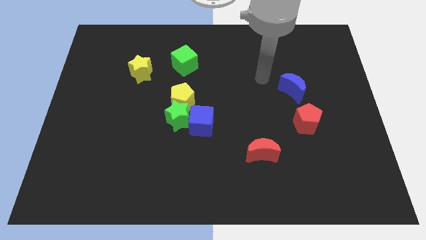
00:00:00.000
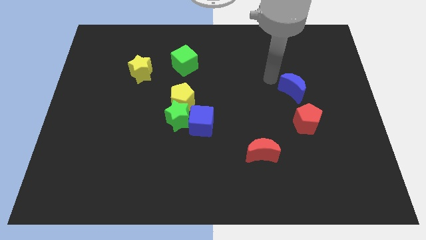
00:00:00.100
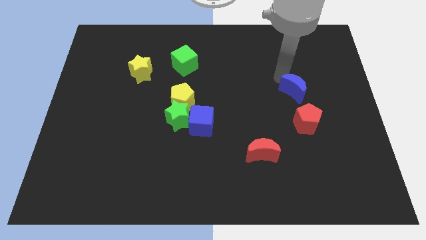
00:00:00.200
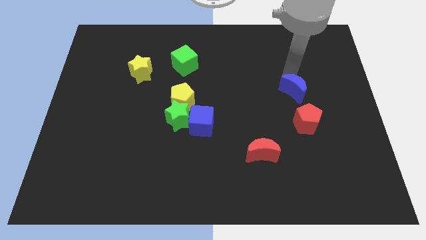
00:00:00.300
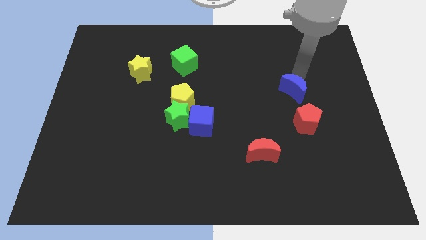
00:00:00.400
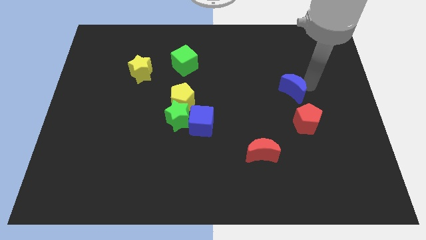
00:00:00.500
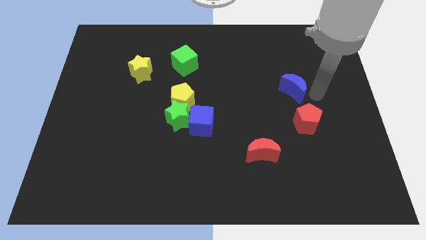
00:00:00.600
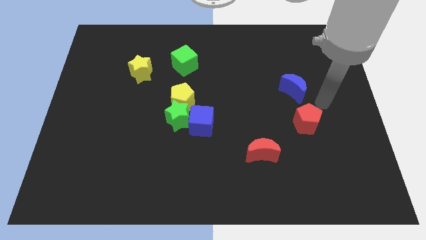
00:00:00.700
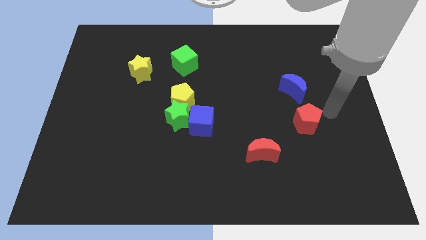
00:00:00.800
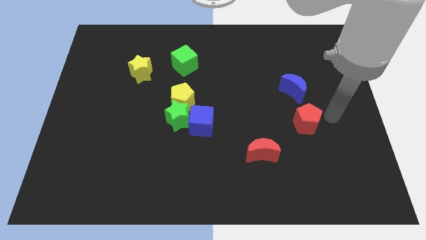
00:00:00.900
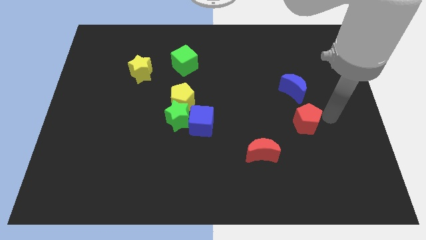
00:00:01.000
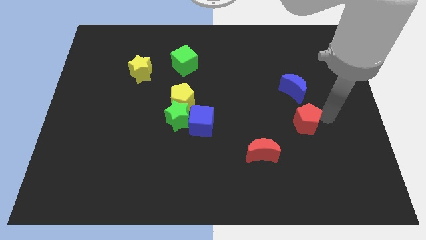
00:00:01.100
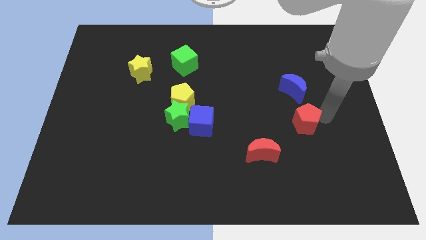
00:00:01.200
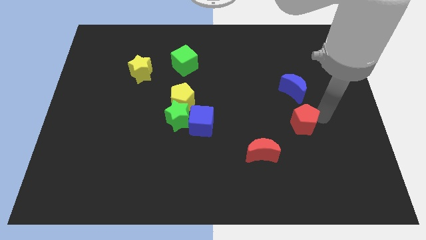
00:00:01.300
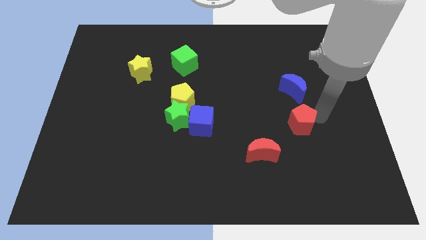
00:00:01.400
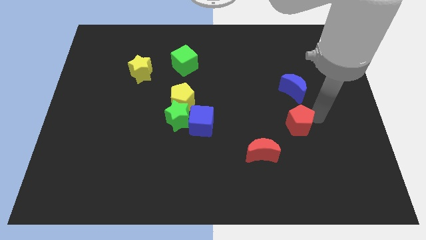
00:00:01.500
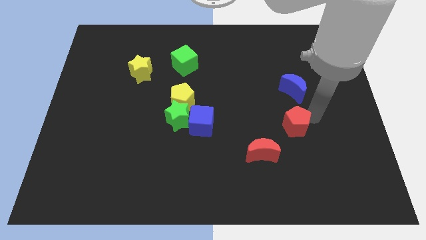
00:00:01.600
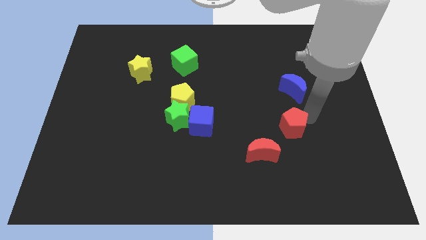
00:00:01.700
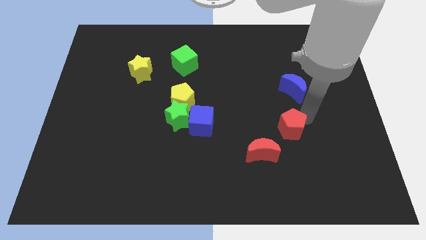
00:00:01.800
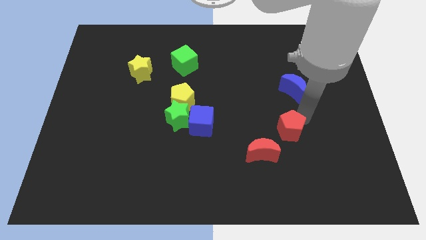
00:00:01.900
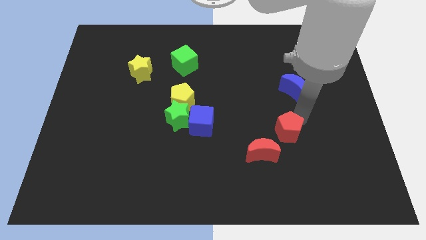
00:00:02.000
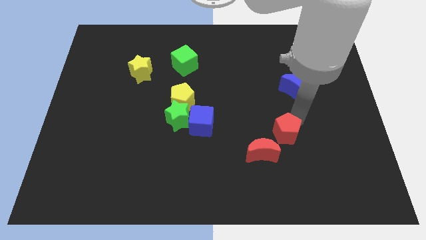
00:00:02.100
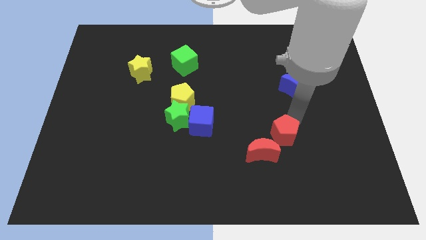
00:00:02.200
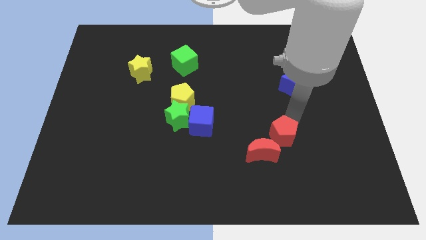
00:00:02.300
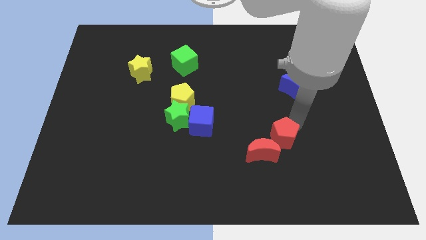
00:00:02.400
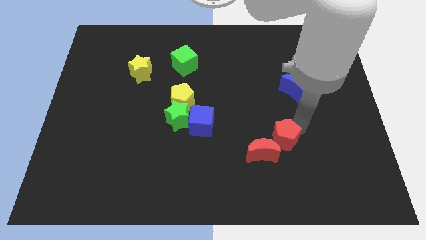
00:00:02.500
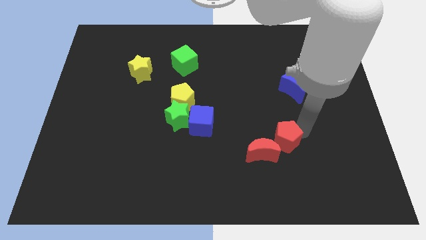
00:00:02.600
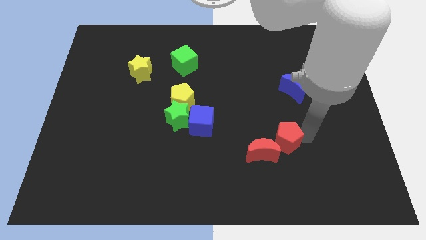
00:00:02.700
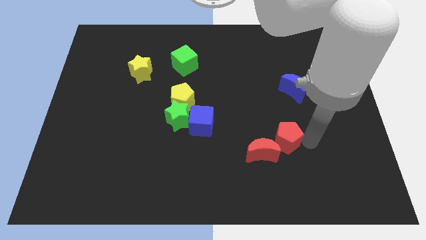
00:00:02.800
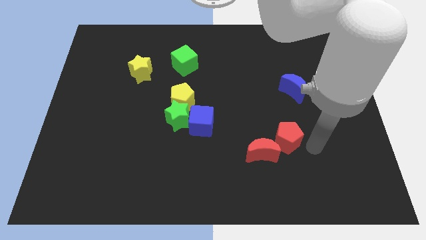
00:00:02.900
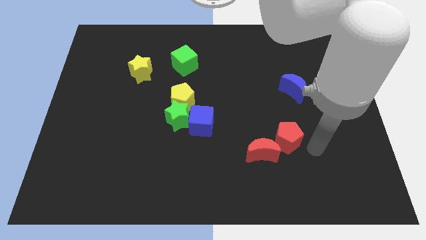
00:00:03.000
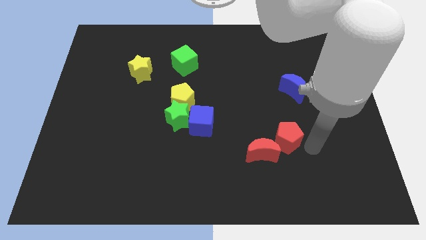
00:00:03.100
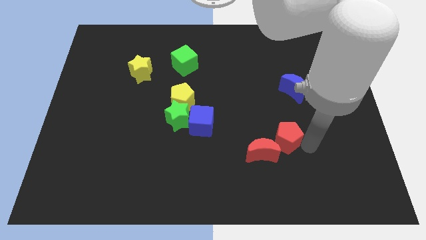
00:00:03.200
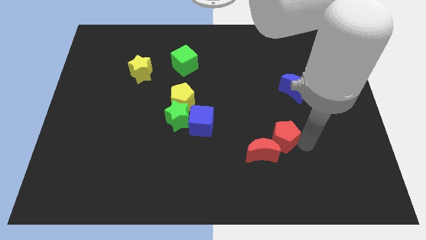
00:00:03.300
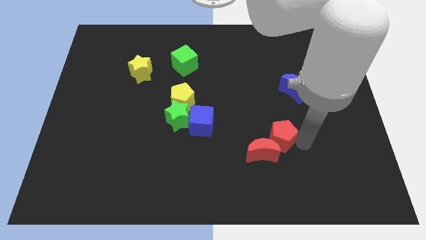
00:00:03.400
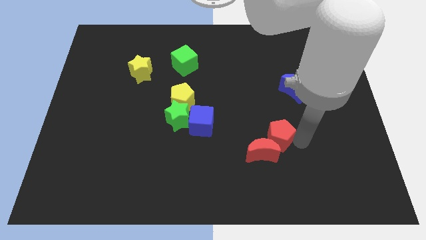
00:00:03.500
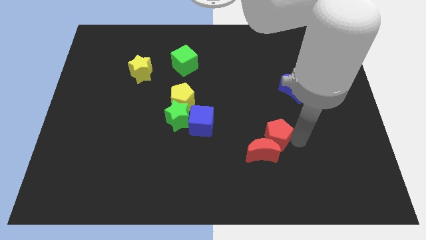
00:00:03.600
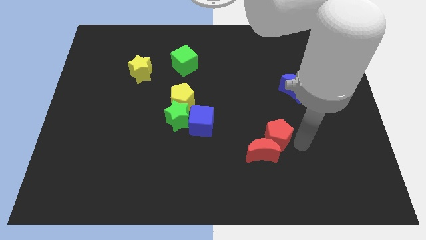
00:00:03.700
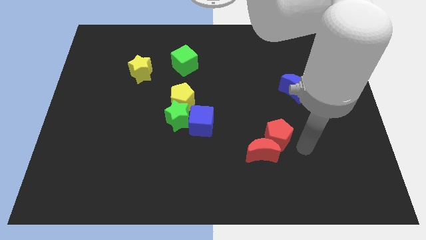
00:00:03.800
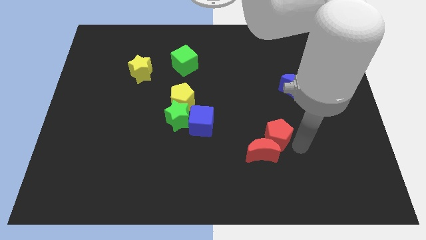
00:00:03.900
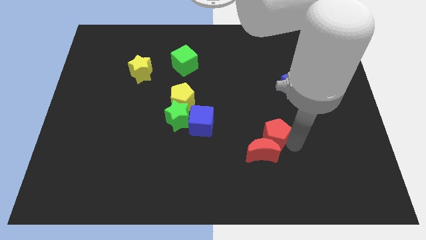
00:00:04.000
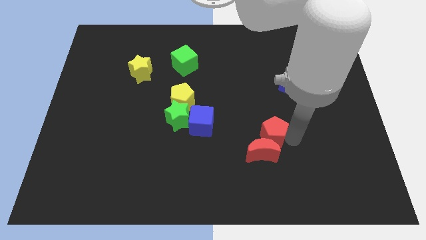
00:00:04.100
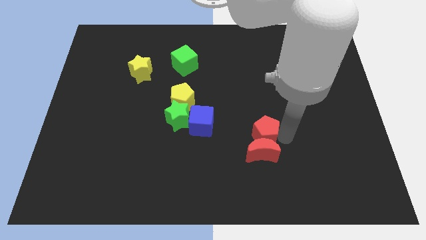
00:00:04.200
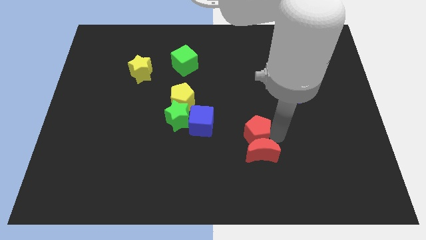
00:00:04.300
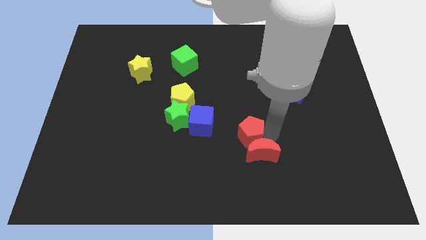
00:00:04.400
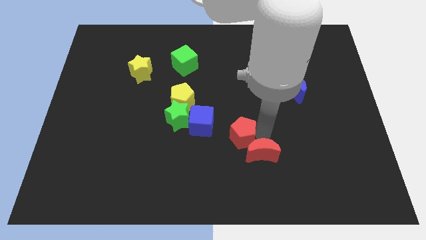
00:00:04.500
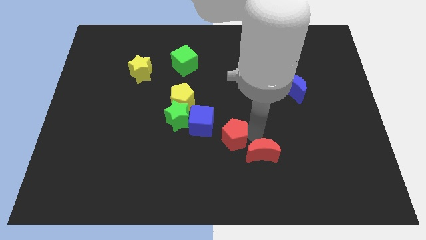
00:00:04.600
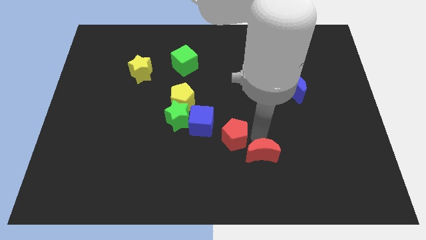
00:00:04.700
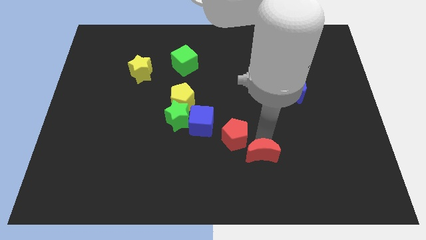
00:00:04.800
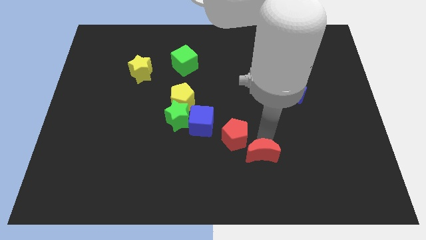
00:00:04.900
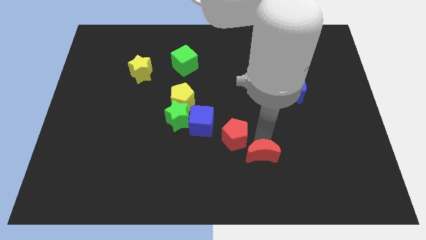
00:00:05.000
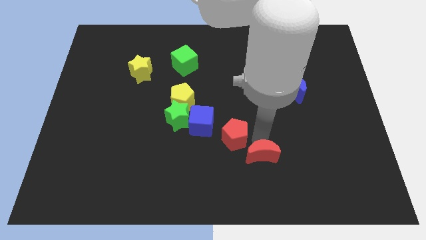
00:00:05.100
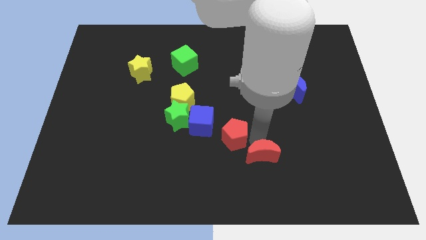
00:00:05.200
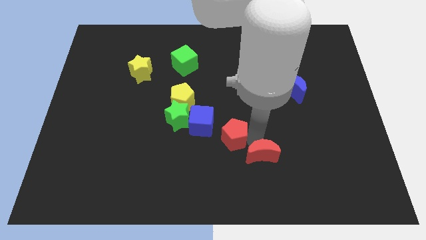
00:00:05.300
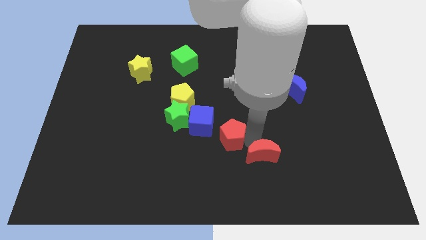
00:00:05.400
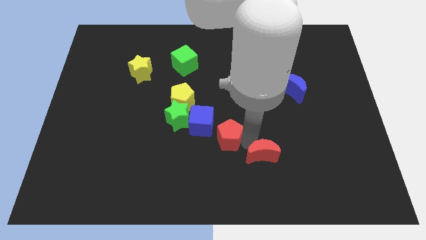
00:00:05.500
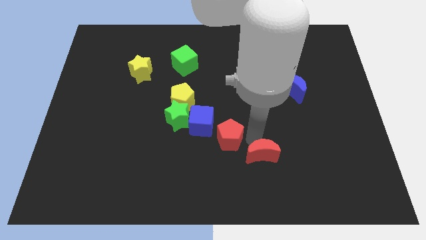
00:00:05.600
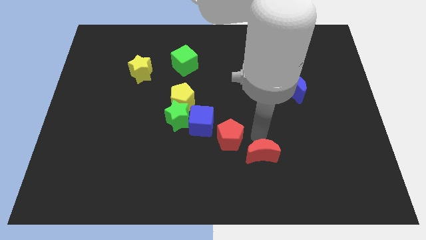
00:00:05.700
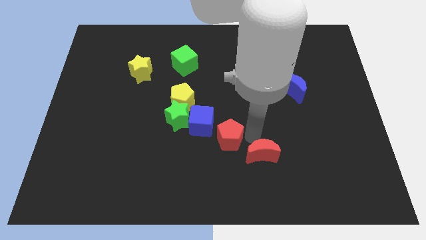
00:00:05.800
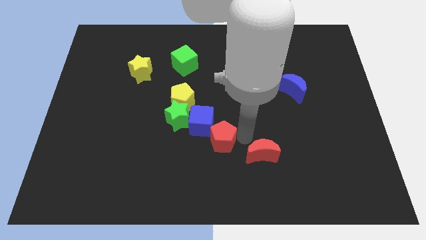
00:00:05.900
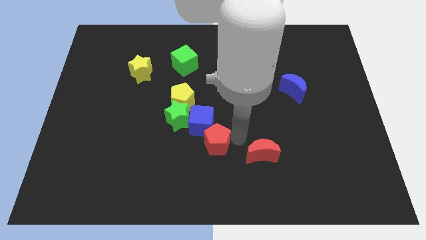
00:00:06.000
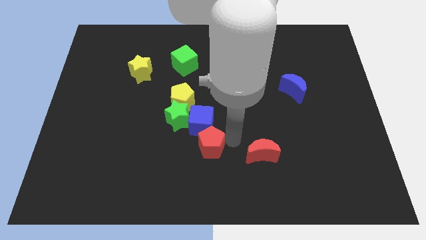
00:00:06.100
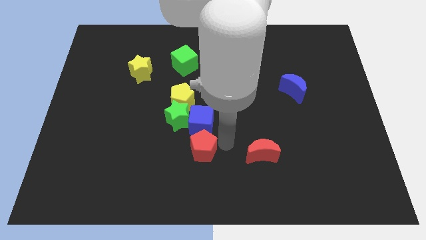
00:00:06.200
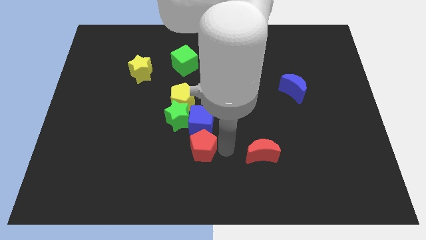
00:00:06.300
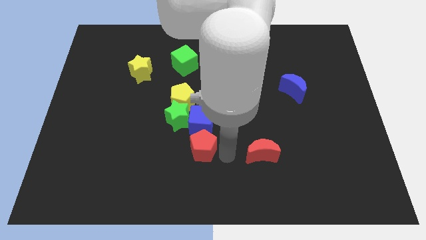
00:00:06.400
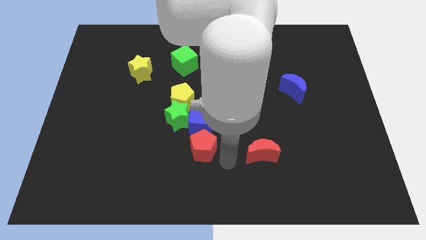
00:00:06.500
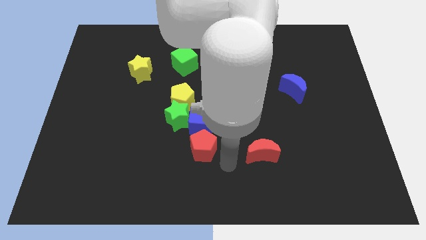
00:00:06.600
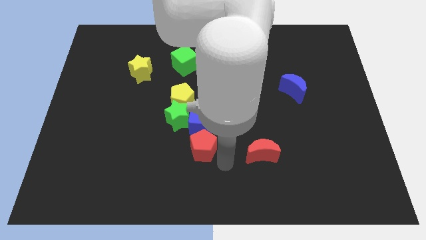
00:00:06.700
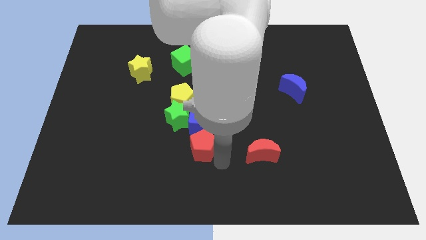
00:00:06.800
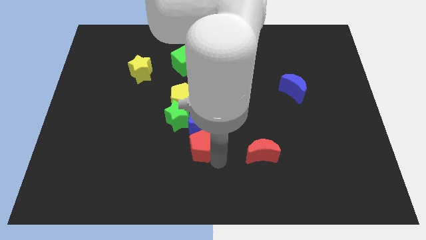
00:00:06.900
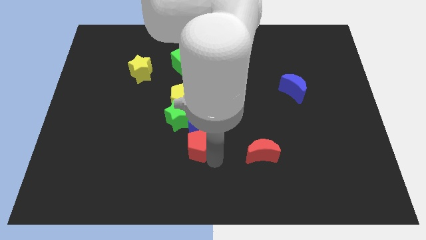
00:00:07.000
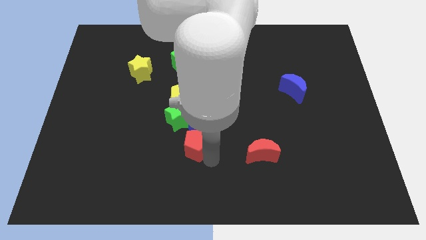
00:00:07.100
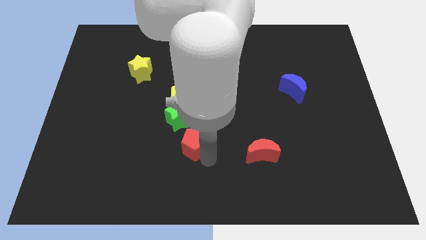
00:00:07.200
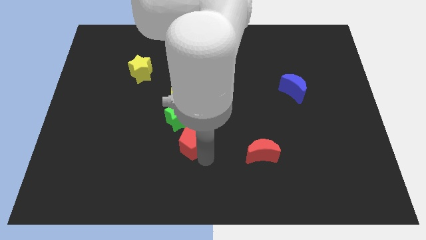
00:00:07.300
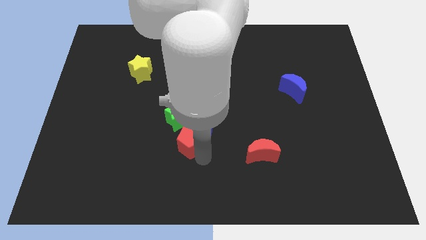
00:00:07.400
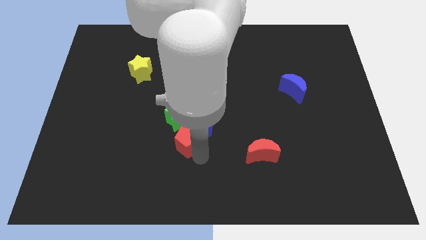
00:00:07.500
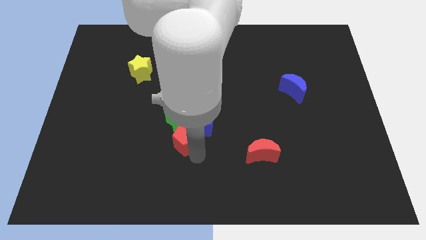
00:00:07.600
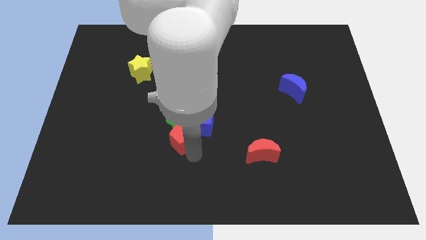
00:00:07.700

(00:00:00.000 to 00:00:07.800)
push the red pentagon next to the green star
